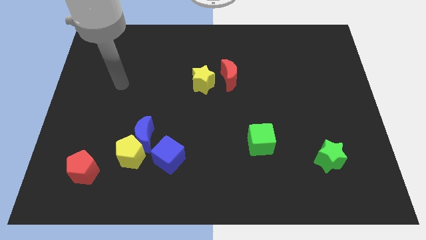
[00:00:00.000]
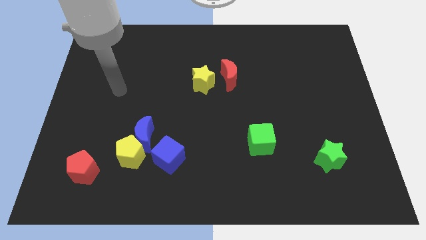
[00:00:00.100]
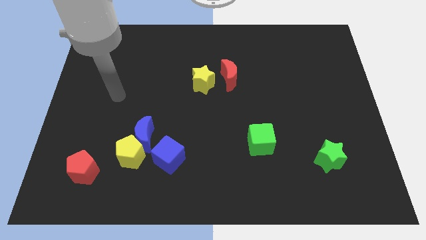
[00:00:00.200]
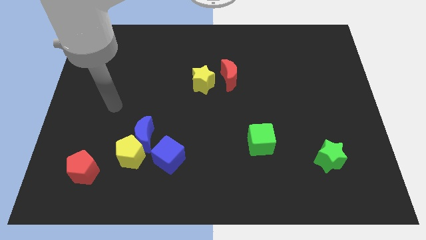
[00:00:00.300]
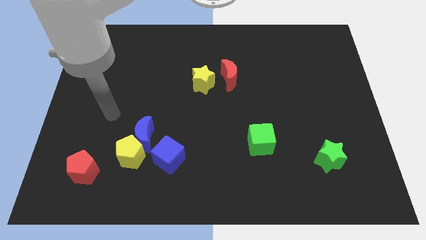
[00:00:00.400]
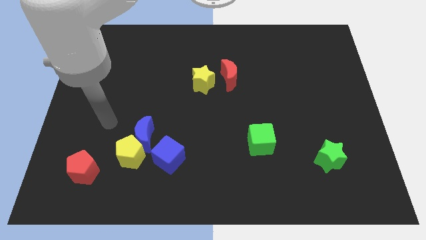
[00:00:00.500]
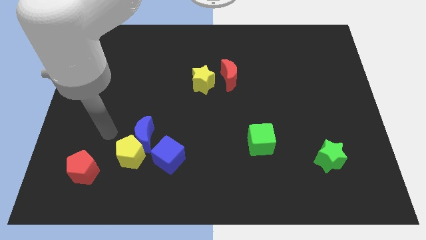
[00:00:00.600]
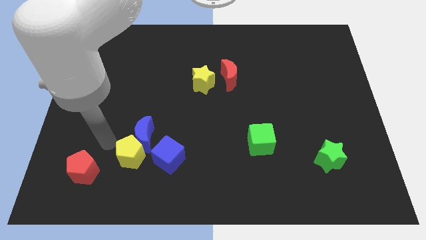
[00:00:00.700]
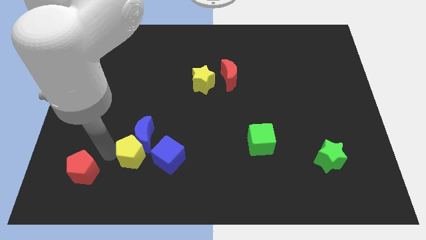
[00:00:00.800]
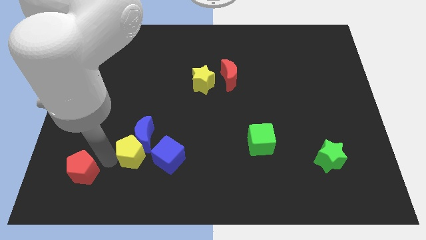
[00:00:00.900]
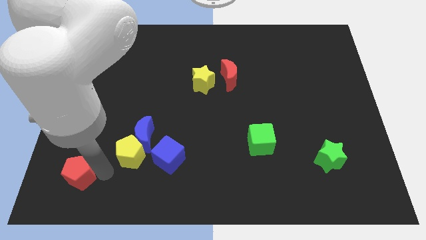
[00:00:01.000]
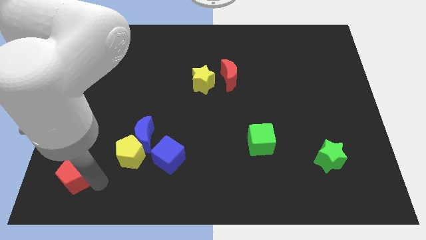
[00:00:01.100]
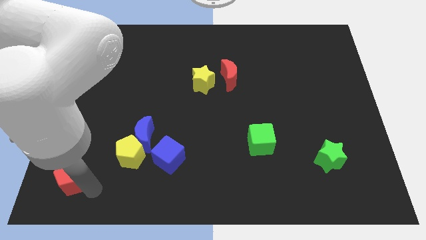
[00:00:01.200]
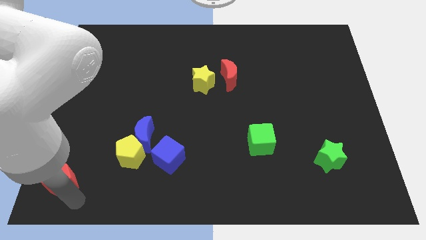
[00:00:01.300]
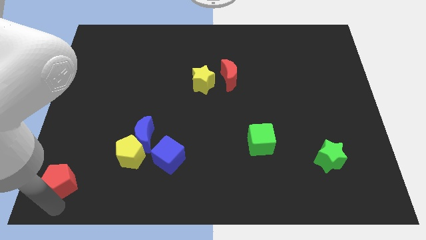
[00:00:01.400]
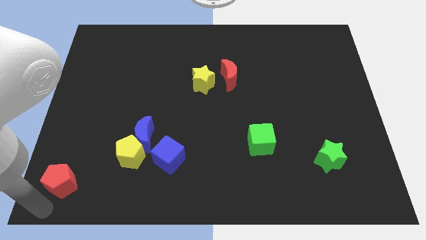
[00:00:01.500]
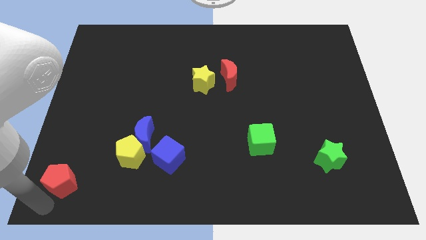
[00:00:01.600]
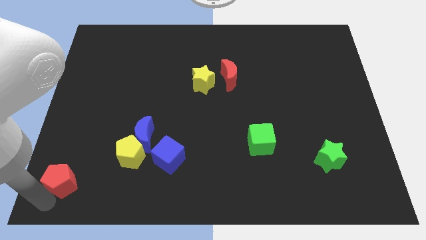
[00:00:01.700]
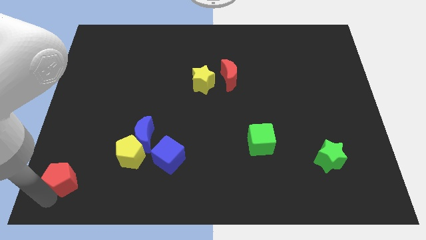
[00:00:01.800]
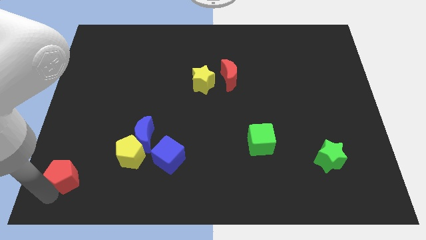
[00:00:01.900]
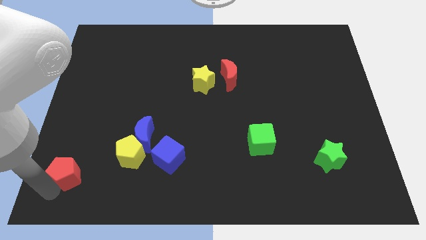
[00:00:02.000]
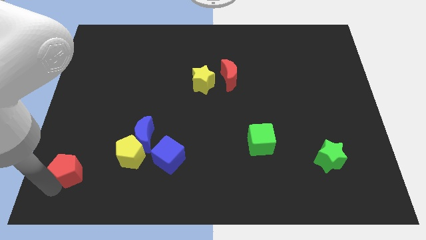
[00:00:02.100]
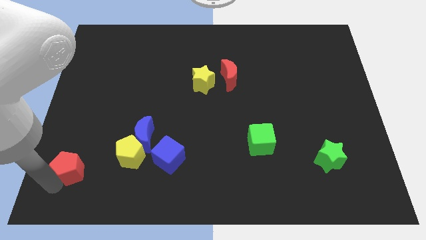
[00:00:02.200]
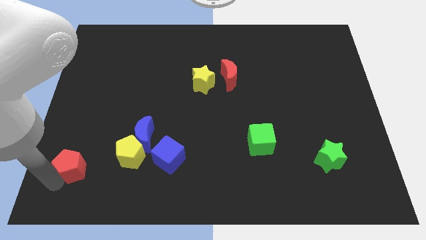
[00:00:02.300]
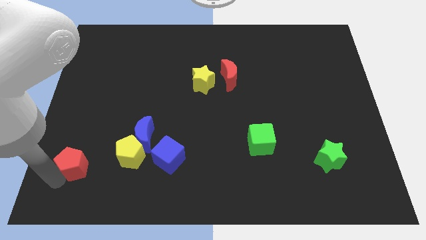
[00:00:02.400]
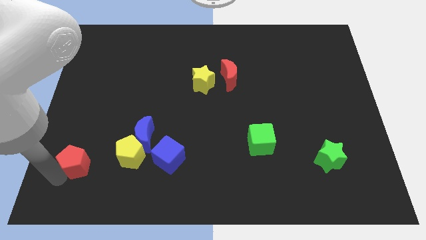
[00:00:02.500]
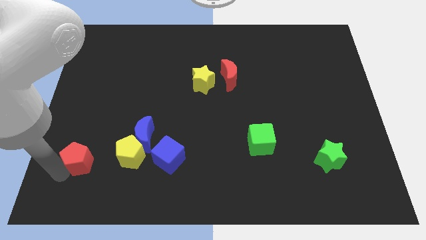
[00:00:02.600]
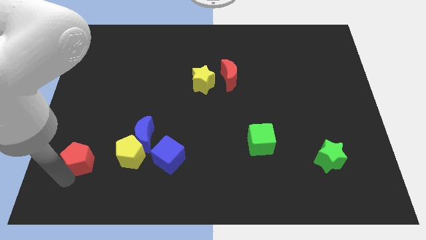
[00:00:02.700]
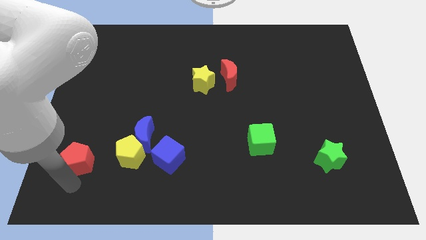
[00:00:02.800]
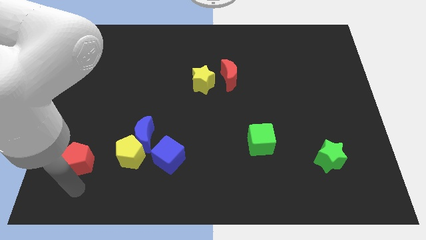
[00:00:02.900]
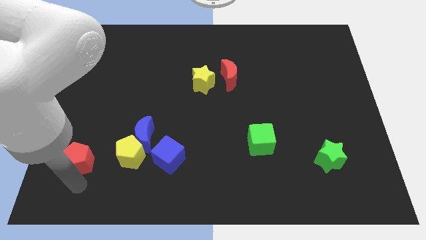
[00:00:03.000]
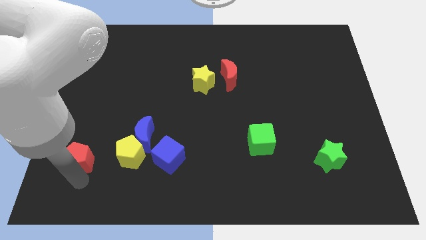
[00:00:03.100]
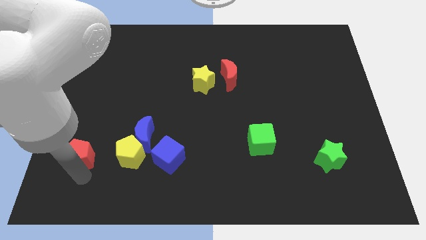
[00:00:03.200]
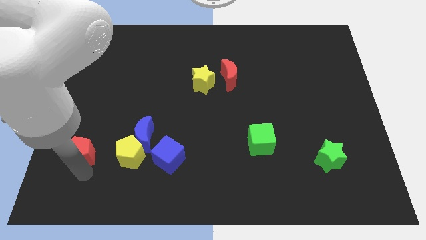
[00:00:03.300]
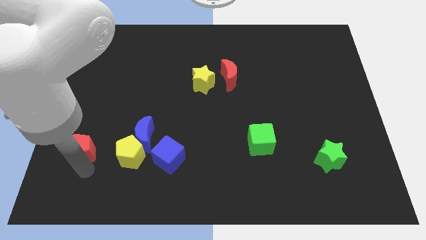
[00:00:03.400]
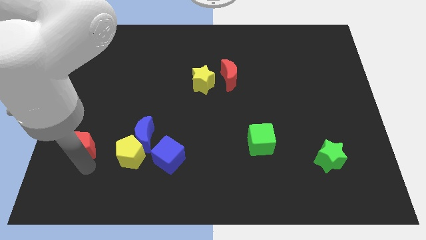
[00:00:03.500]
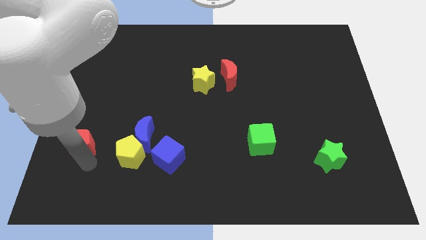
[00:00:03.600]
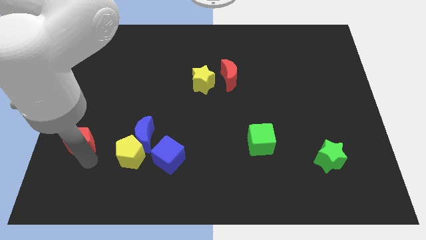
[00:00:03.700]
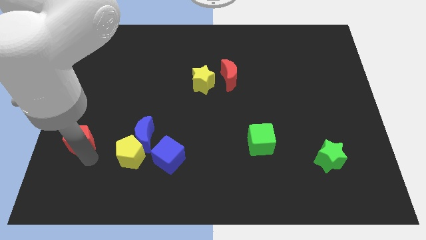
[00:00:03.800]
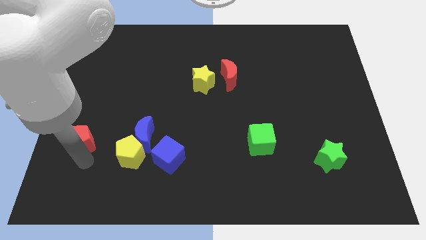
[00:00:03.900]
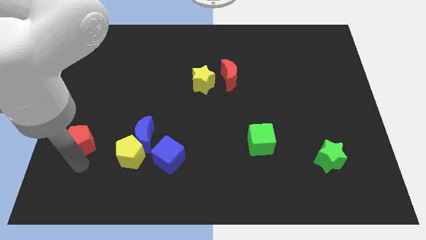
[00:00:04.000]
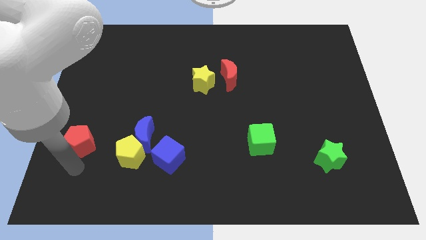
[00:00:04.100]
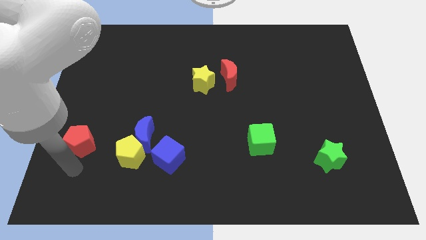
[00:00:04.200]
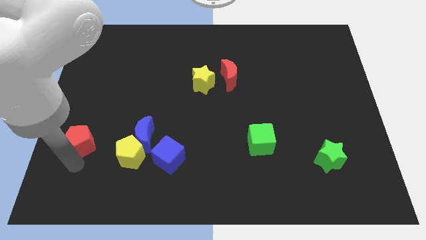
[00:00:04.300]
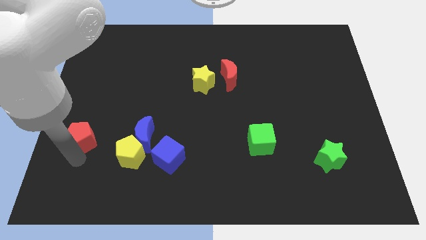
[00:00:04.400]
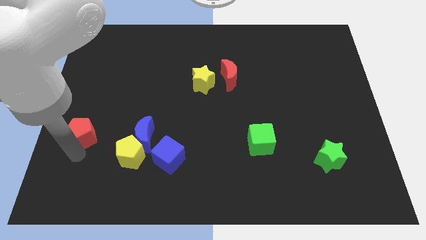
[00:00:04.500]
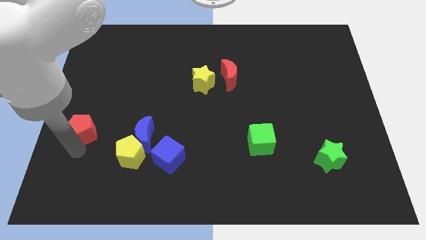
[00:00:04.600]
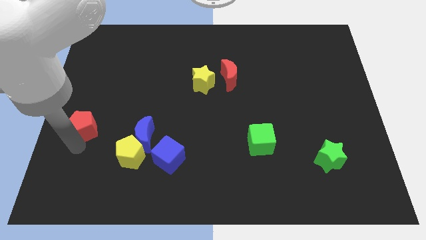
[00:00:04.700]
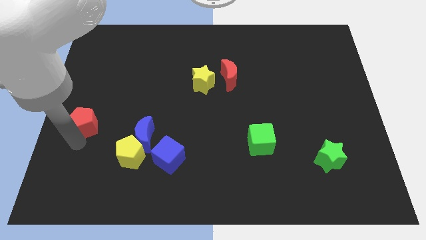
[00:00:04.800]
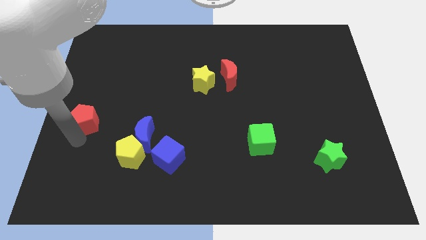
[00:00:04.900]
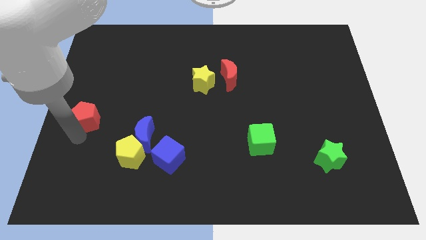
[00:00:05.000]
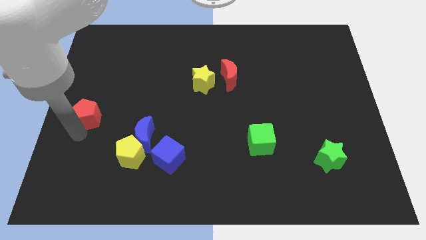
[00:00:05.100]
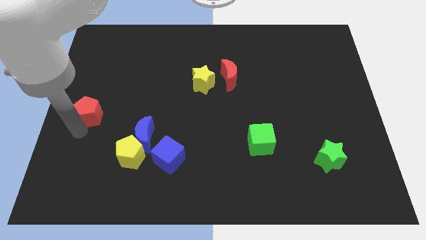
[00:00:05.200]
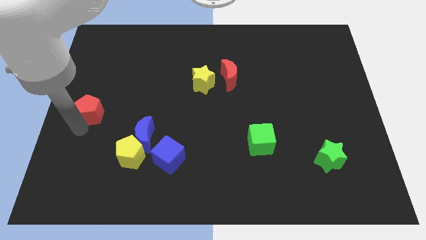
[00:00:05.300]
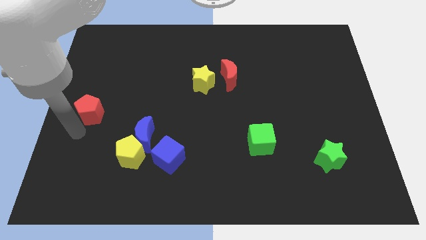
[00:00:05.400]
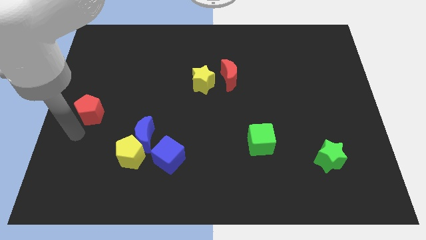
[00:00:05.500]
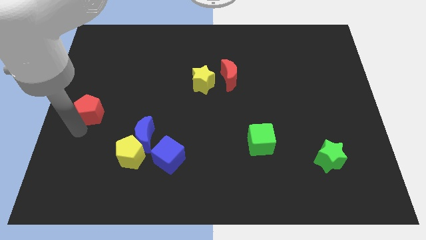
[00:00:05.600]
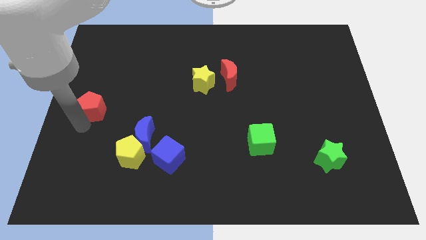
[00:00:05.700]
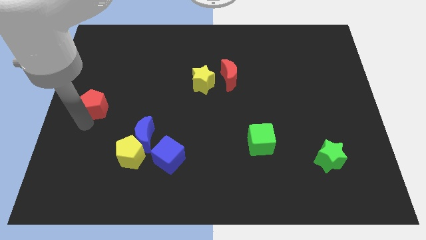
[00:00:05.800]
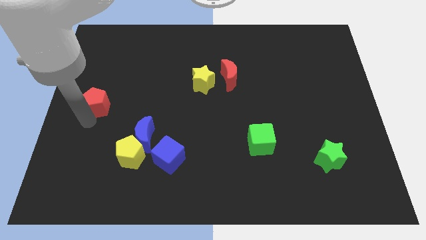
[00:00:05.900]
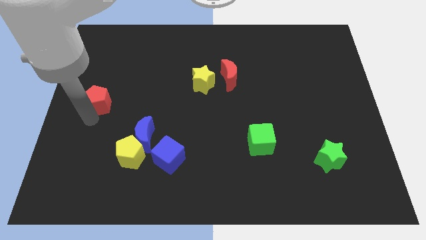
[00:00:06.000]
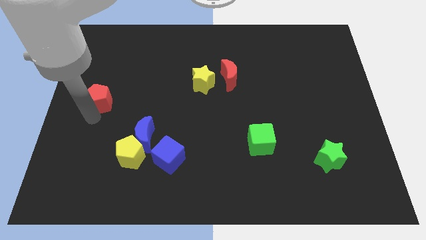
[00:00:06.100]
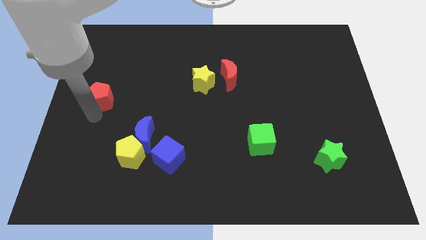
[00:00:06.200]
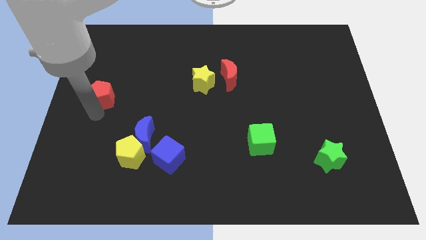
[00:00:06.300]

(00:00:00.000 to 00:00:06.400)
push the red pentagon up

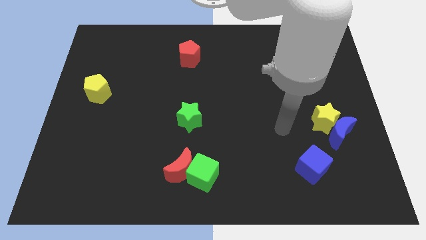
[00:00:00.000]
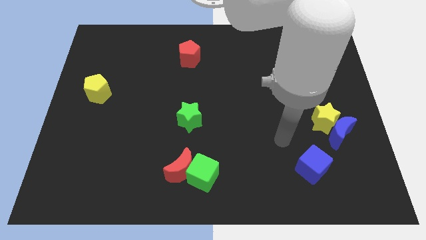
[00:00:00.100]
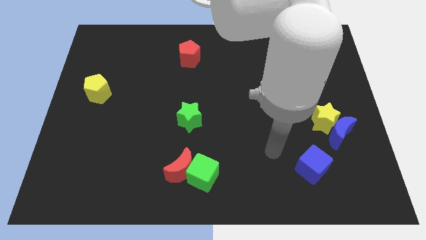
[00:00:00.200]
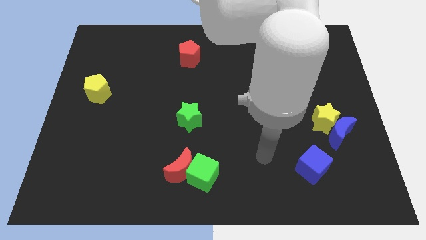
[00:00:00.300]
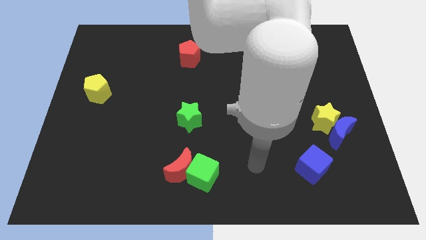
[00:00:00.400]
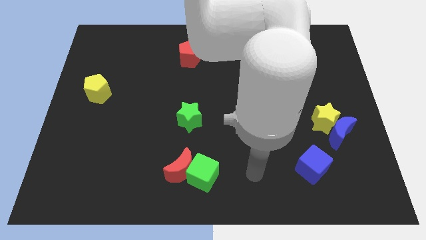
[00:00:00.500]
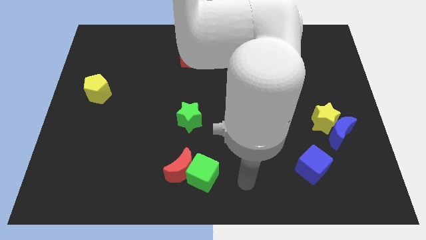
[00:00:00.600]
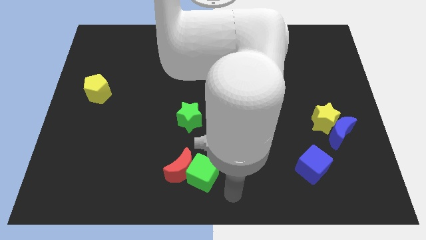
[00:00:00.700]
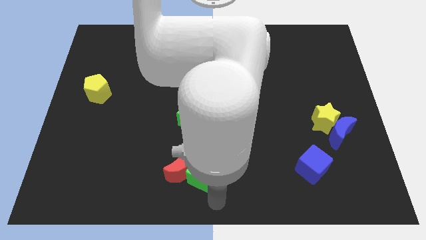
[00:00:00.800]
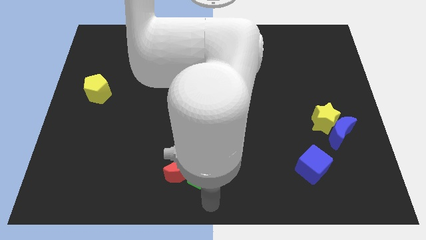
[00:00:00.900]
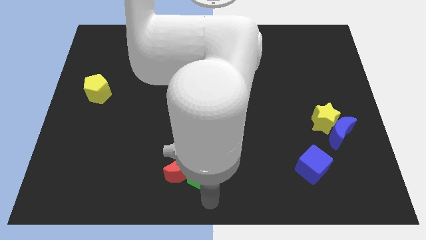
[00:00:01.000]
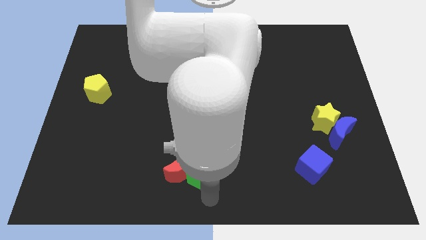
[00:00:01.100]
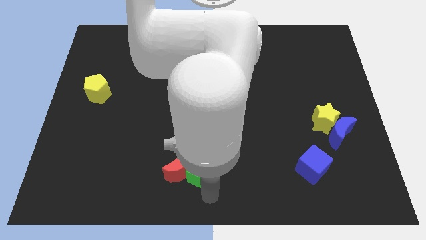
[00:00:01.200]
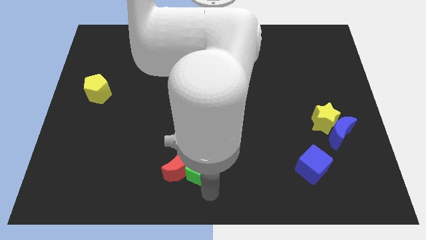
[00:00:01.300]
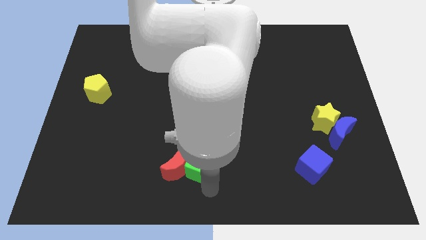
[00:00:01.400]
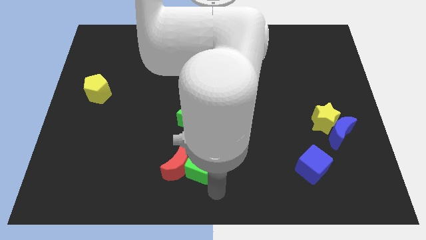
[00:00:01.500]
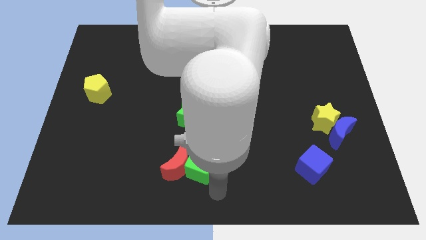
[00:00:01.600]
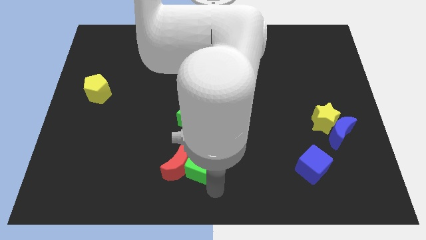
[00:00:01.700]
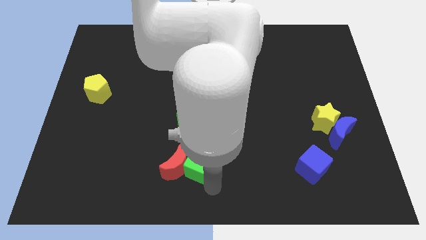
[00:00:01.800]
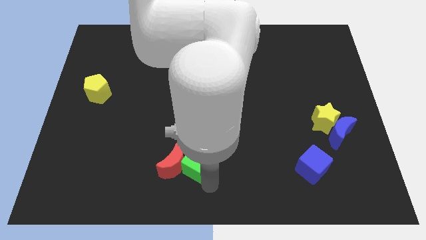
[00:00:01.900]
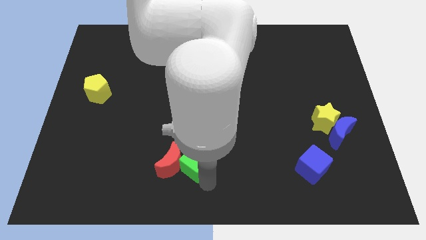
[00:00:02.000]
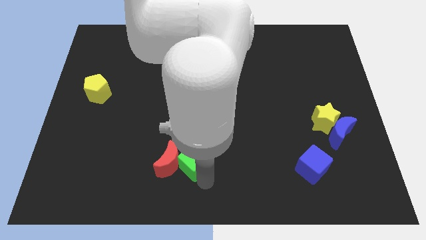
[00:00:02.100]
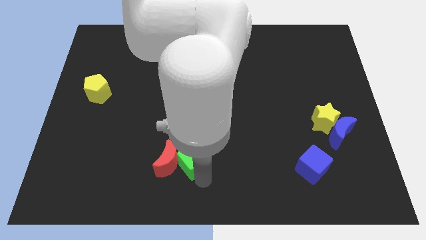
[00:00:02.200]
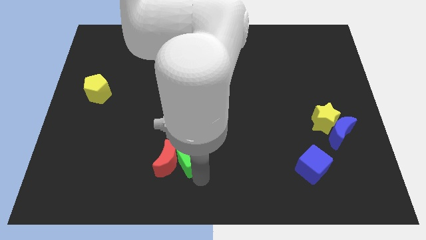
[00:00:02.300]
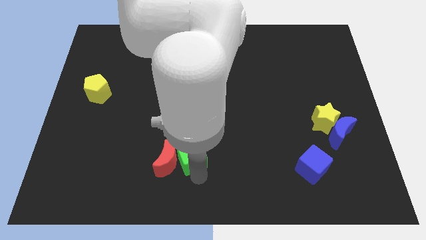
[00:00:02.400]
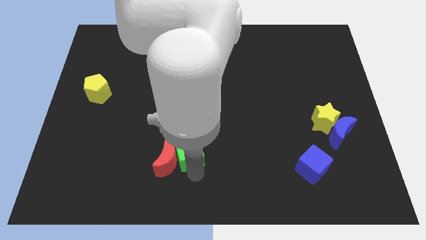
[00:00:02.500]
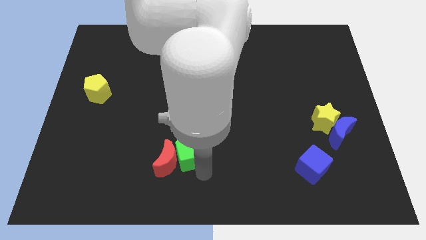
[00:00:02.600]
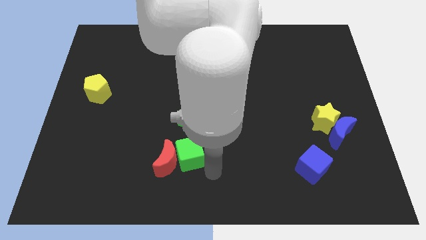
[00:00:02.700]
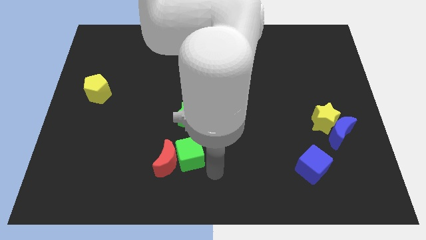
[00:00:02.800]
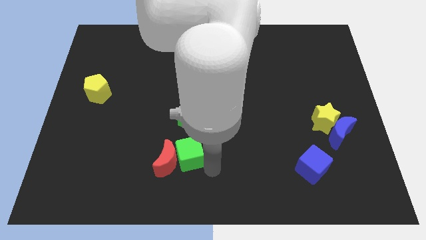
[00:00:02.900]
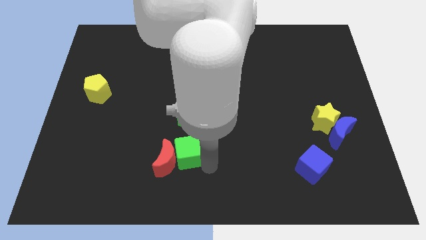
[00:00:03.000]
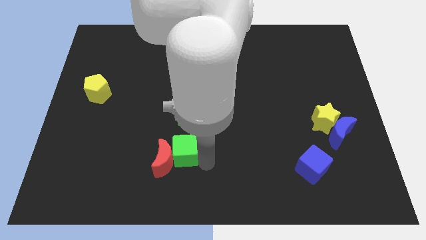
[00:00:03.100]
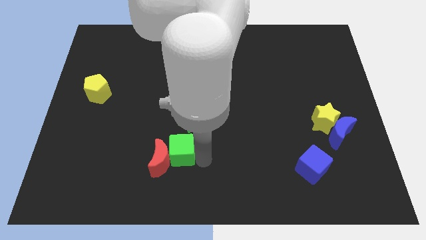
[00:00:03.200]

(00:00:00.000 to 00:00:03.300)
slide the green cube a bit up and then left
